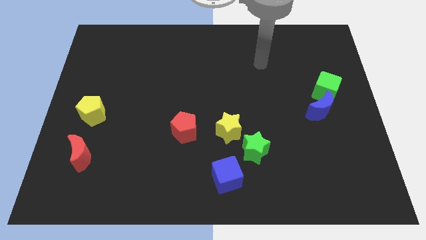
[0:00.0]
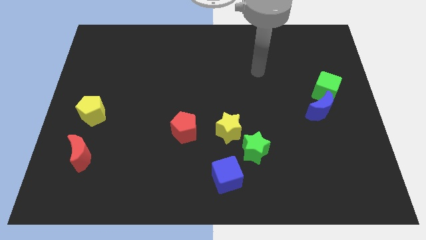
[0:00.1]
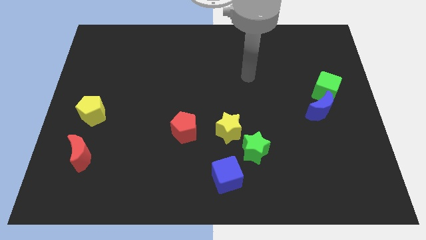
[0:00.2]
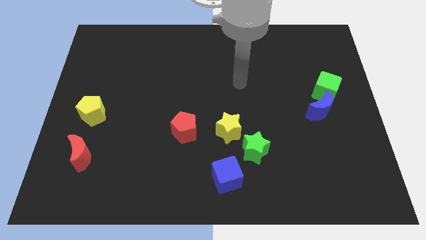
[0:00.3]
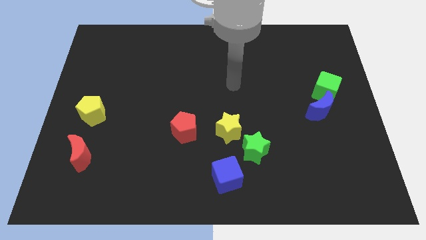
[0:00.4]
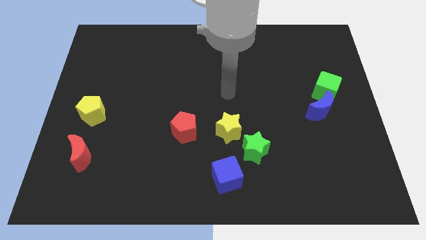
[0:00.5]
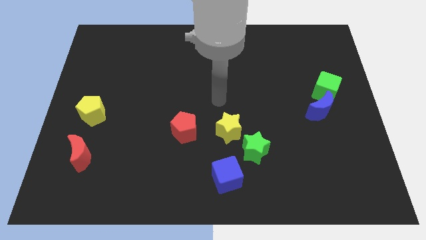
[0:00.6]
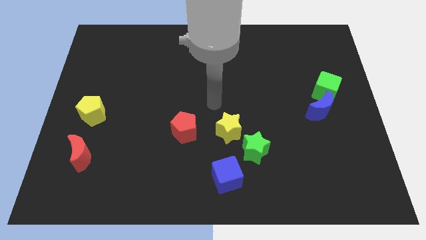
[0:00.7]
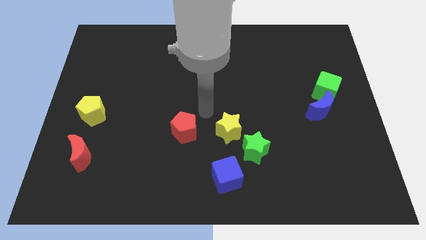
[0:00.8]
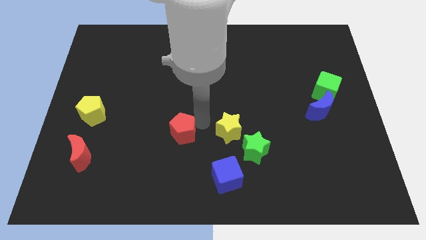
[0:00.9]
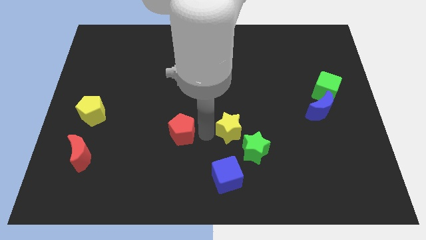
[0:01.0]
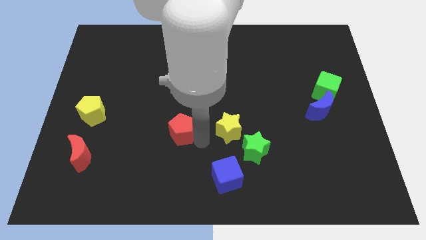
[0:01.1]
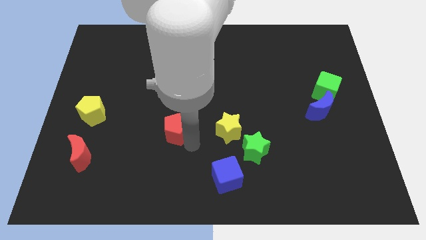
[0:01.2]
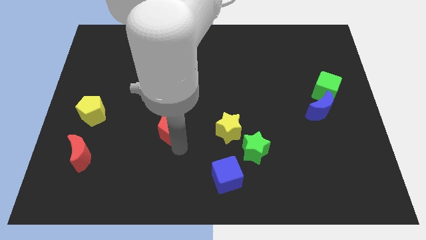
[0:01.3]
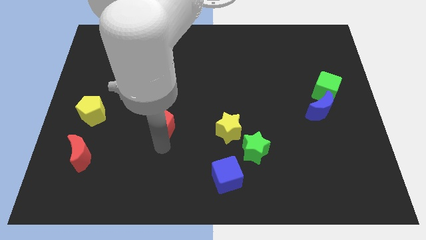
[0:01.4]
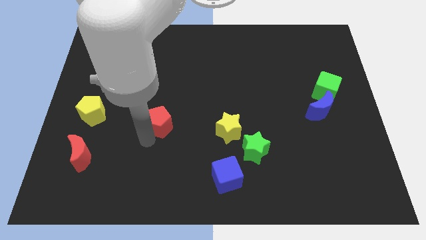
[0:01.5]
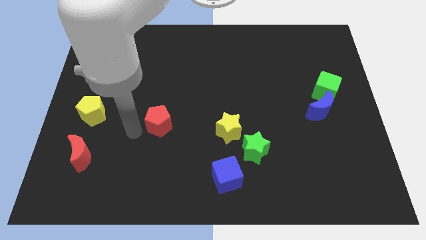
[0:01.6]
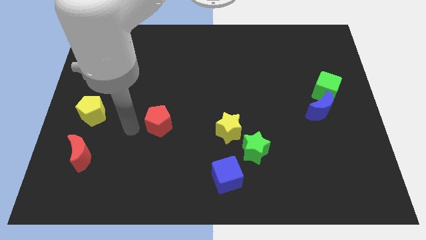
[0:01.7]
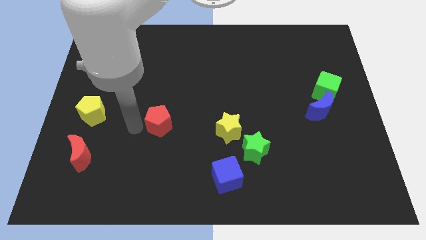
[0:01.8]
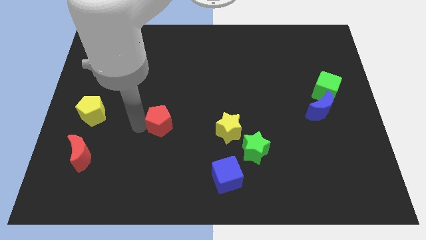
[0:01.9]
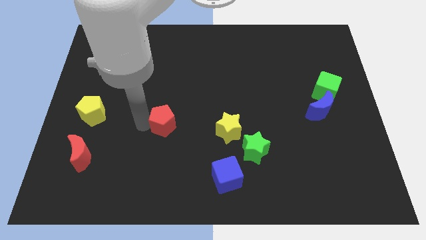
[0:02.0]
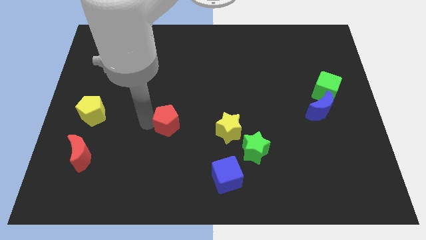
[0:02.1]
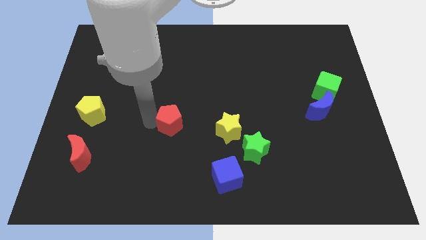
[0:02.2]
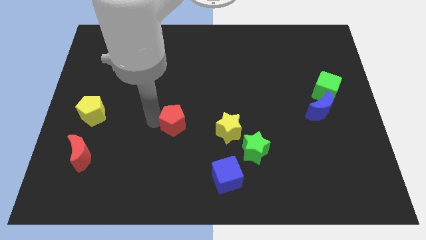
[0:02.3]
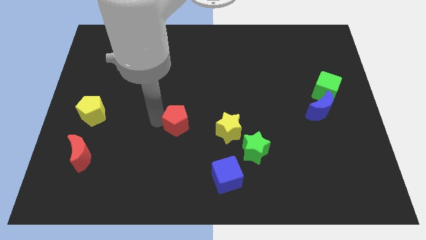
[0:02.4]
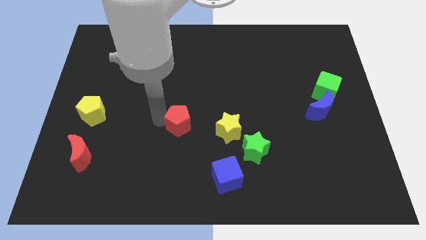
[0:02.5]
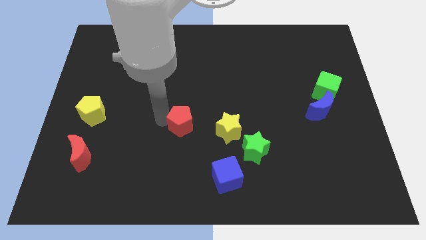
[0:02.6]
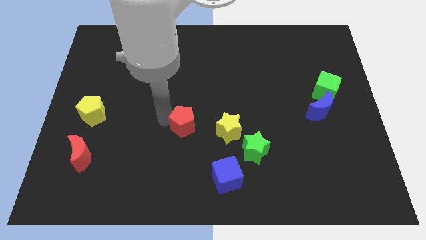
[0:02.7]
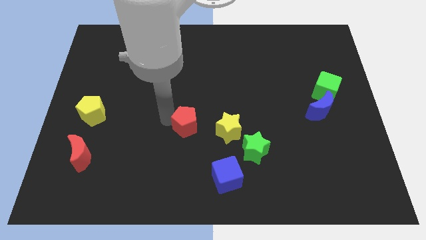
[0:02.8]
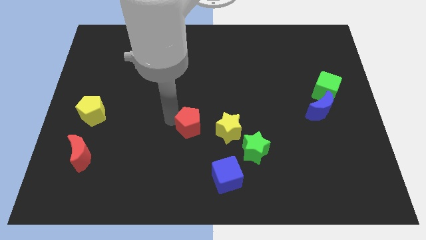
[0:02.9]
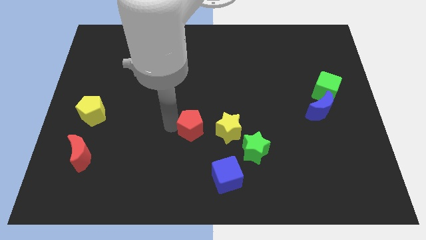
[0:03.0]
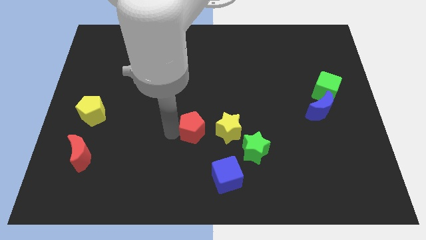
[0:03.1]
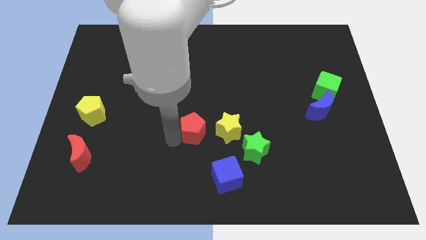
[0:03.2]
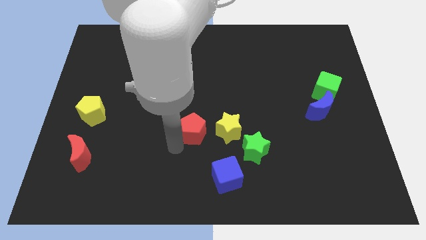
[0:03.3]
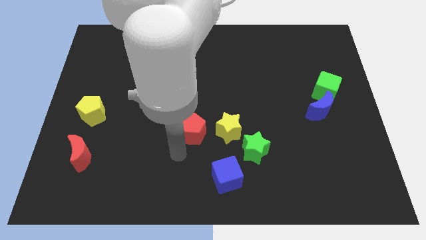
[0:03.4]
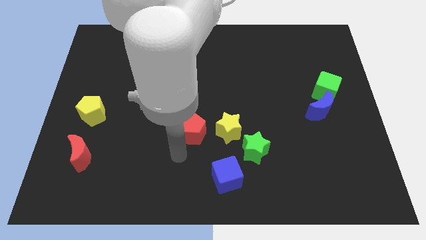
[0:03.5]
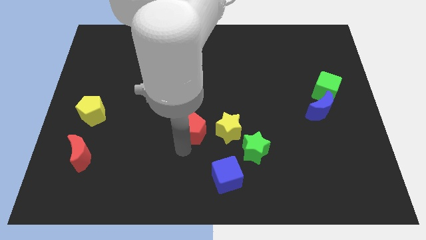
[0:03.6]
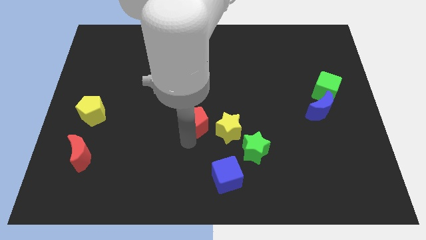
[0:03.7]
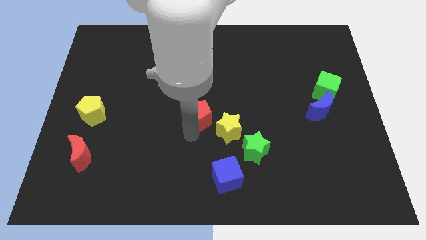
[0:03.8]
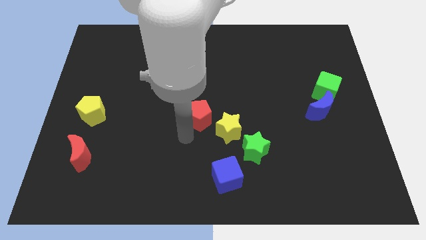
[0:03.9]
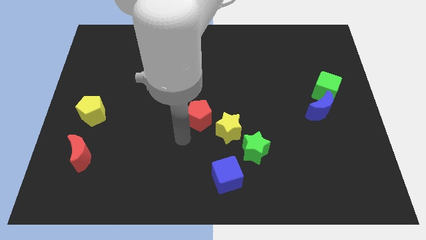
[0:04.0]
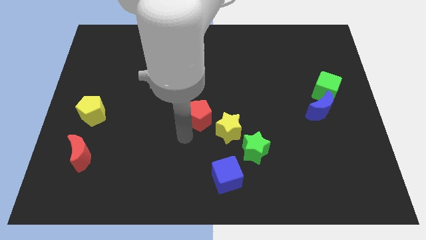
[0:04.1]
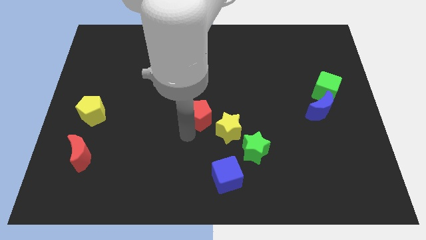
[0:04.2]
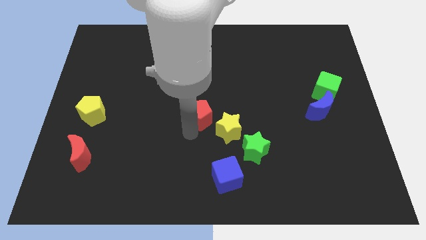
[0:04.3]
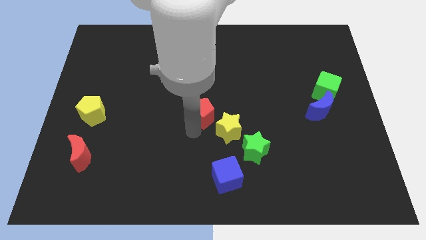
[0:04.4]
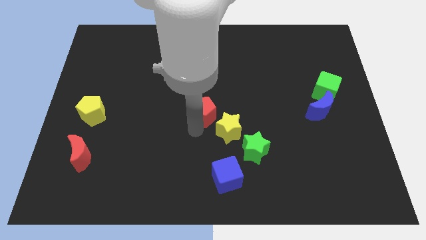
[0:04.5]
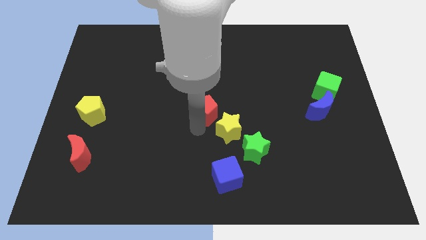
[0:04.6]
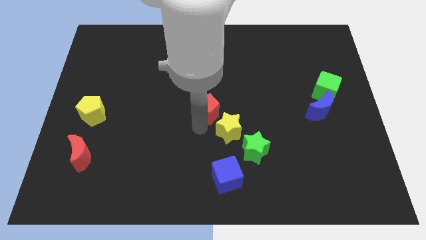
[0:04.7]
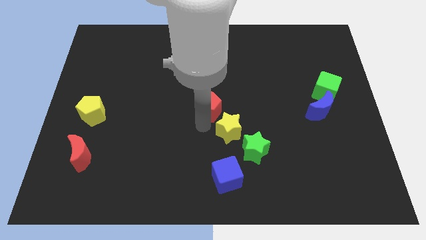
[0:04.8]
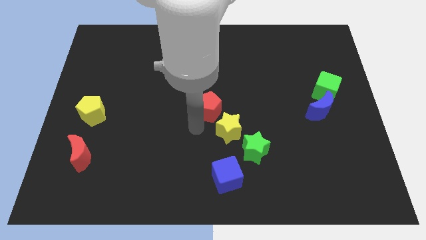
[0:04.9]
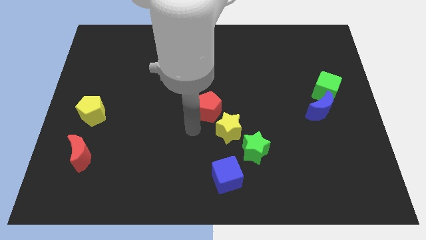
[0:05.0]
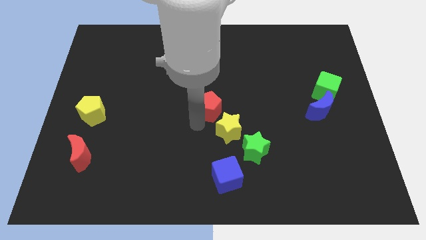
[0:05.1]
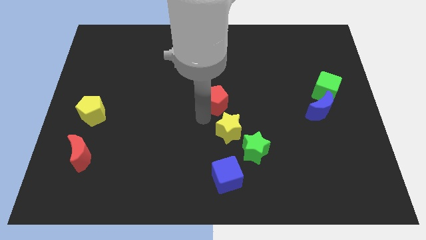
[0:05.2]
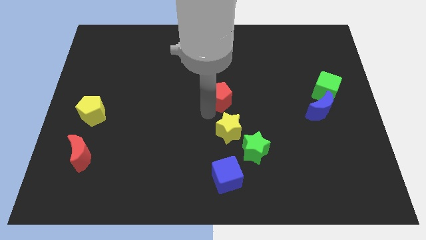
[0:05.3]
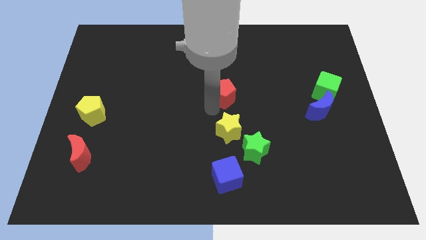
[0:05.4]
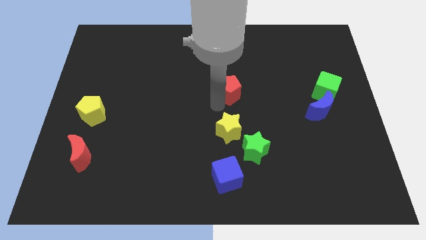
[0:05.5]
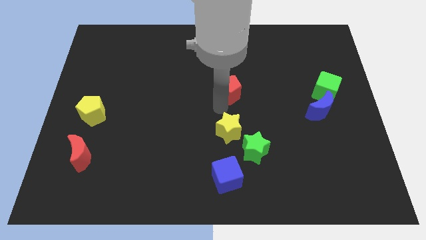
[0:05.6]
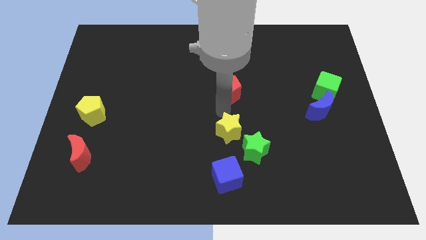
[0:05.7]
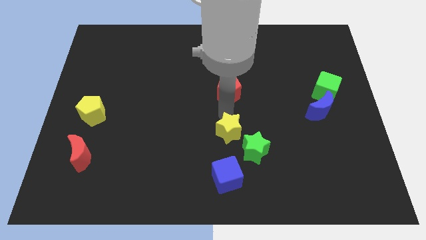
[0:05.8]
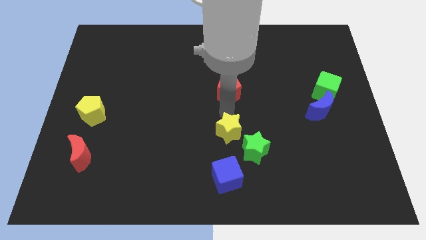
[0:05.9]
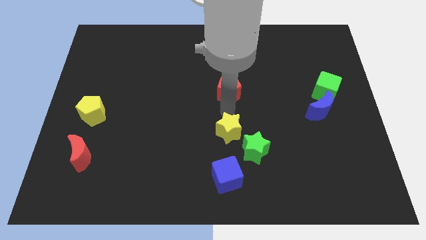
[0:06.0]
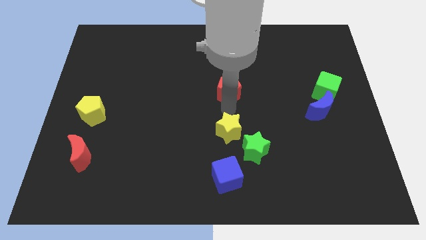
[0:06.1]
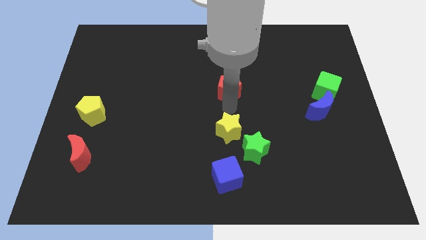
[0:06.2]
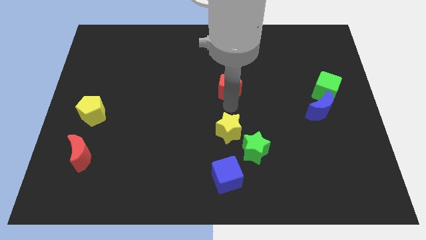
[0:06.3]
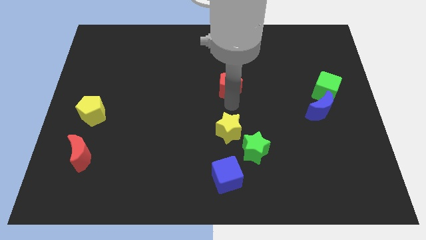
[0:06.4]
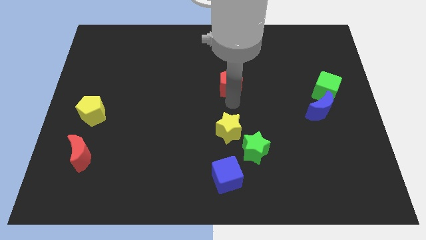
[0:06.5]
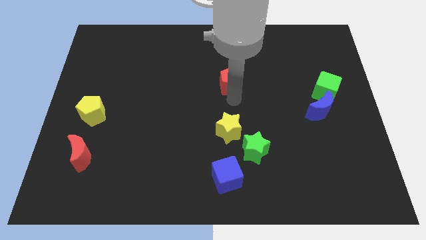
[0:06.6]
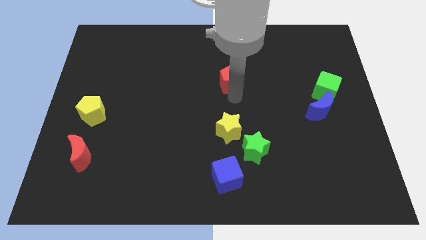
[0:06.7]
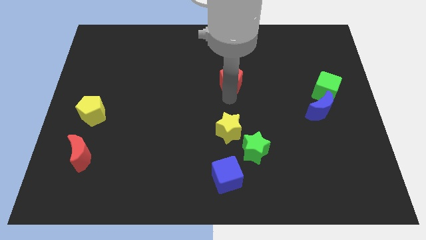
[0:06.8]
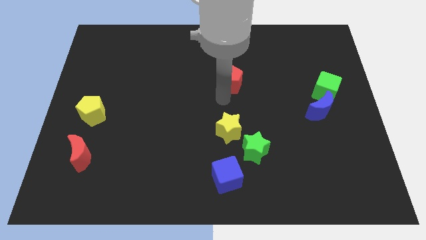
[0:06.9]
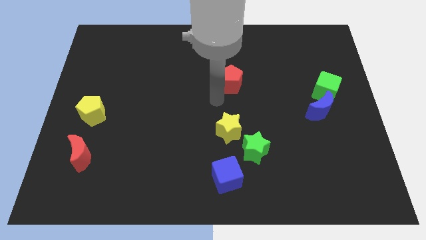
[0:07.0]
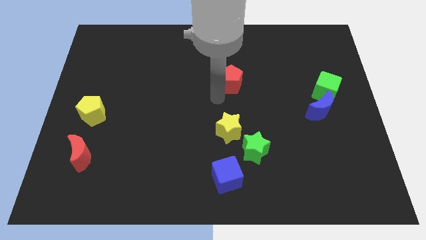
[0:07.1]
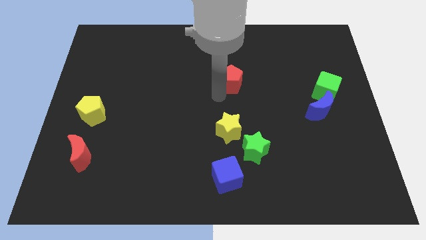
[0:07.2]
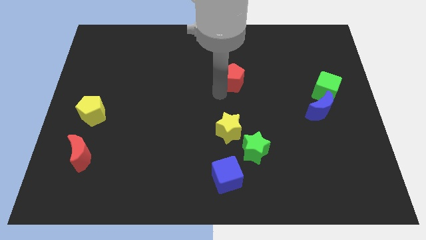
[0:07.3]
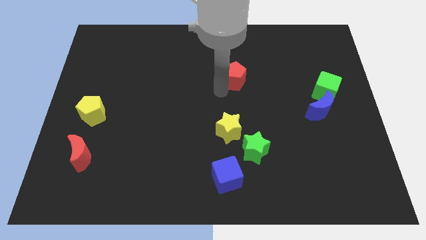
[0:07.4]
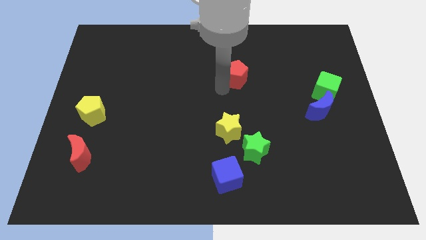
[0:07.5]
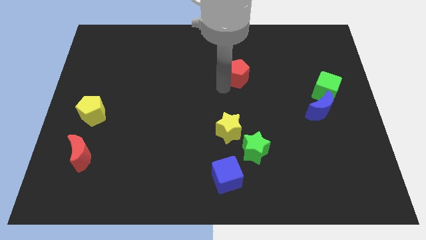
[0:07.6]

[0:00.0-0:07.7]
push the red pentagon up and right

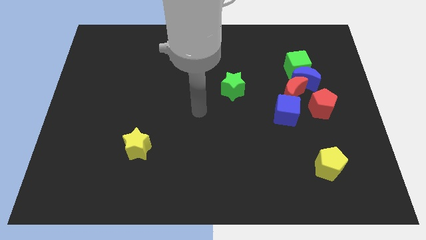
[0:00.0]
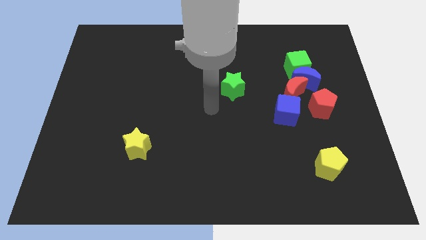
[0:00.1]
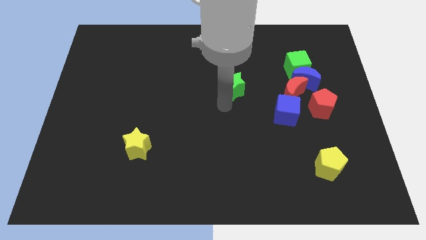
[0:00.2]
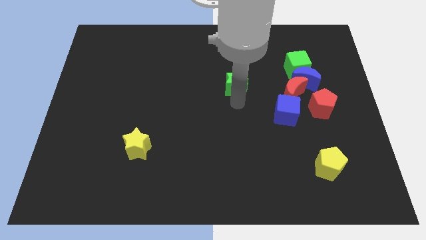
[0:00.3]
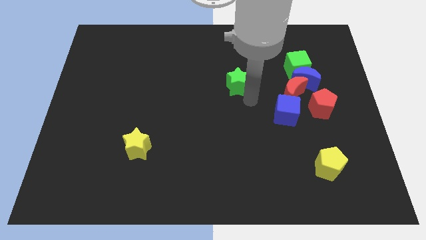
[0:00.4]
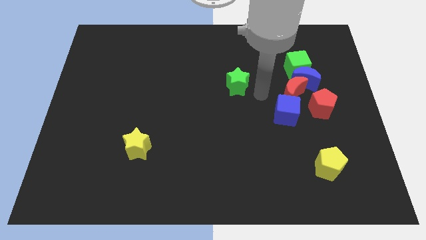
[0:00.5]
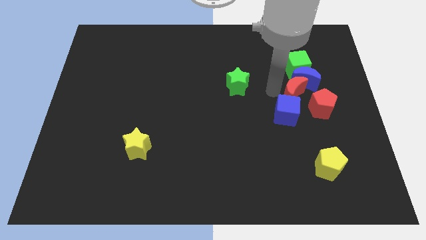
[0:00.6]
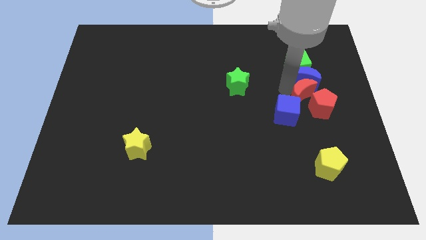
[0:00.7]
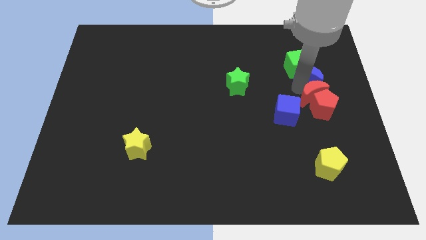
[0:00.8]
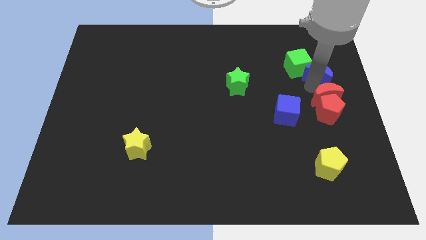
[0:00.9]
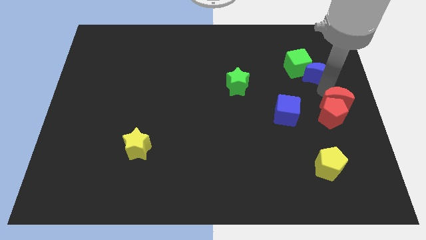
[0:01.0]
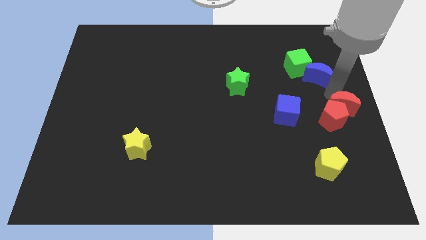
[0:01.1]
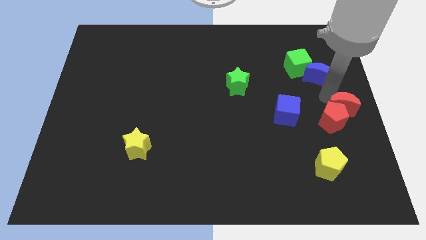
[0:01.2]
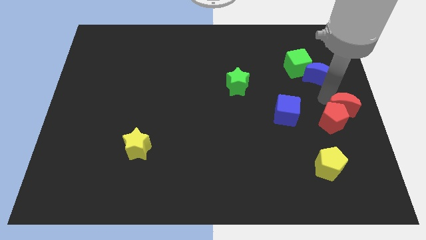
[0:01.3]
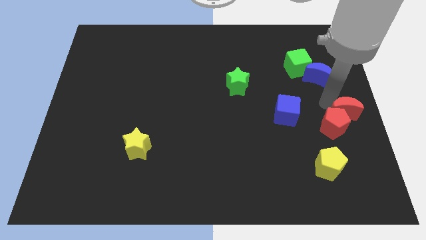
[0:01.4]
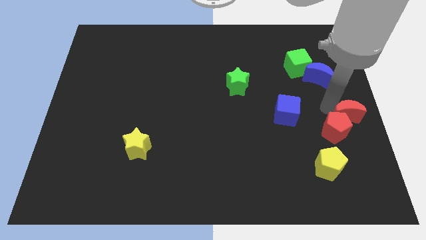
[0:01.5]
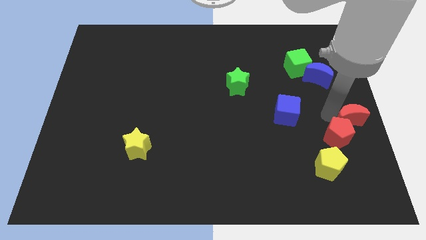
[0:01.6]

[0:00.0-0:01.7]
slightly push the red pentagon down
